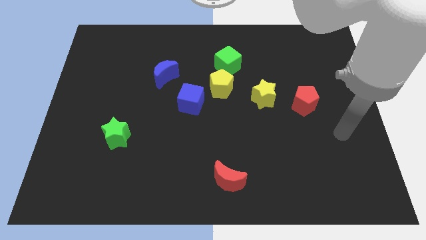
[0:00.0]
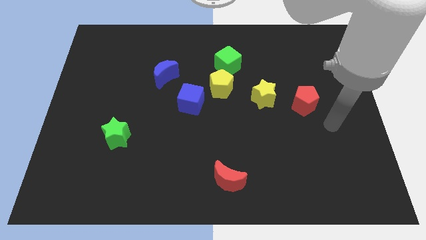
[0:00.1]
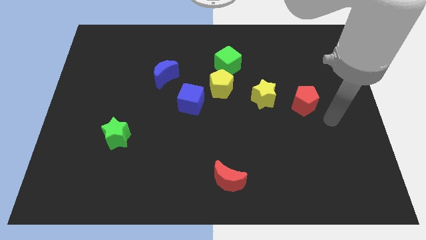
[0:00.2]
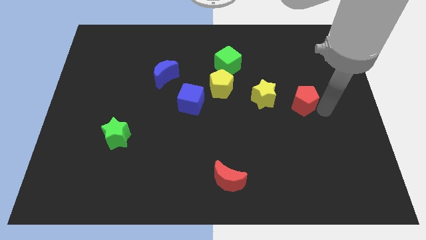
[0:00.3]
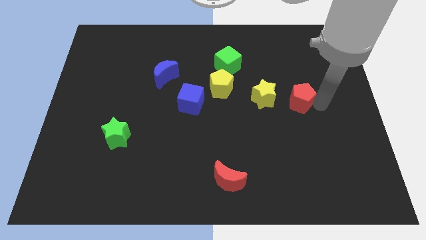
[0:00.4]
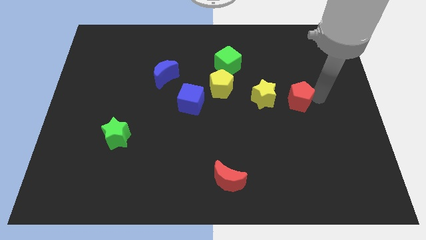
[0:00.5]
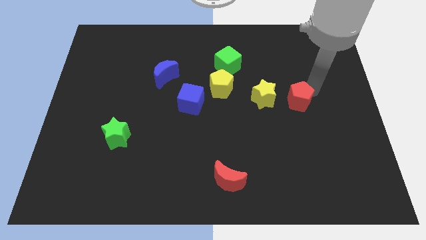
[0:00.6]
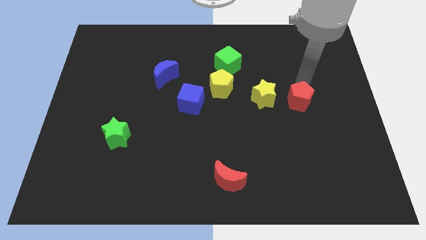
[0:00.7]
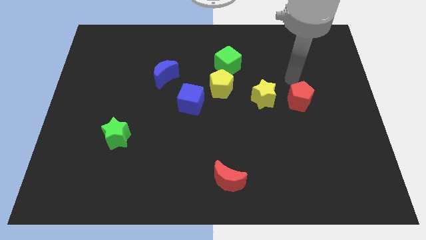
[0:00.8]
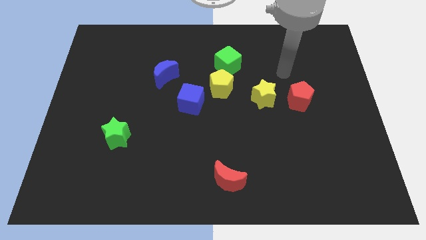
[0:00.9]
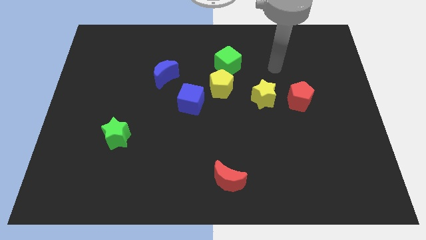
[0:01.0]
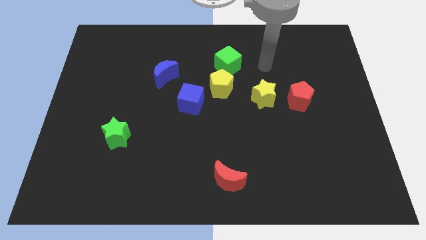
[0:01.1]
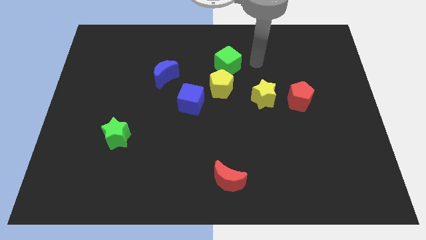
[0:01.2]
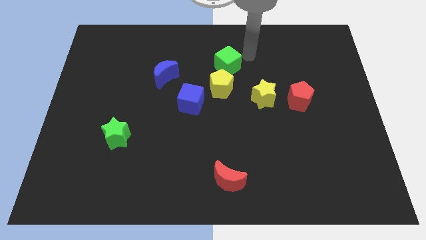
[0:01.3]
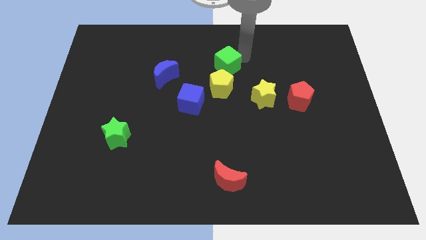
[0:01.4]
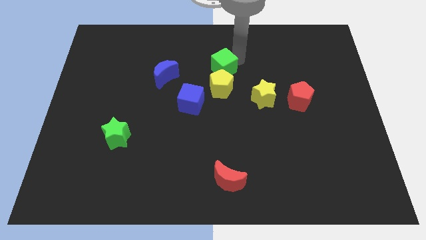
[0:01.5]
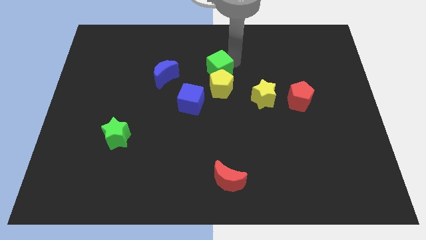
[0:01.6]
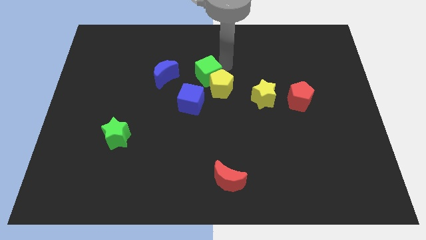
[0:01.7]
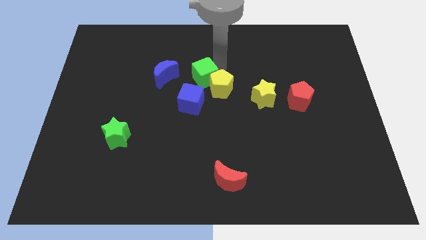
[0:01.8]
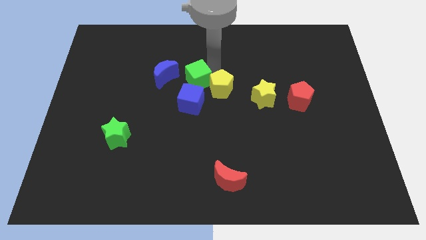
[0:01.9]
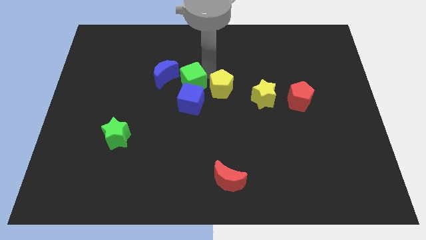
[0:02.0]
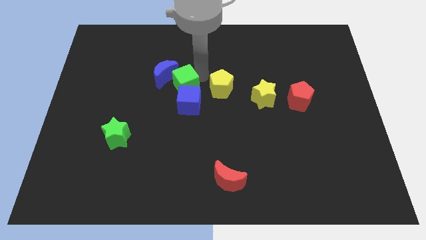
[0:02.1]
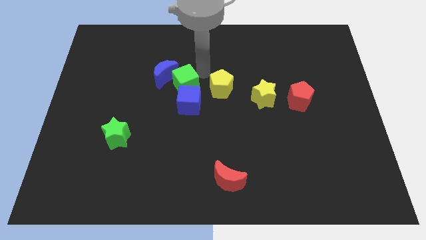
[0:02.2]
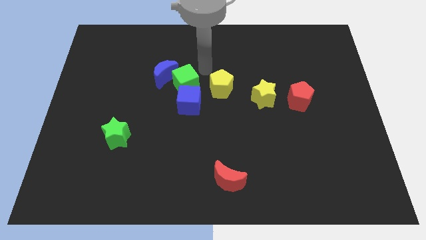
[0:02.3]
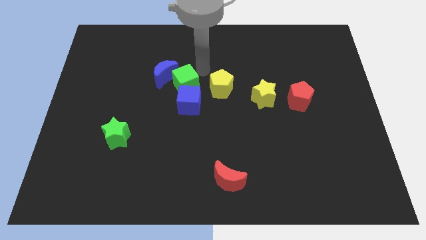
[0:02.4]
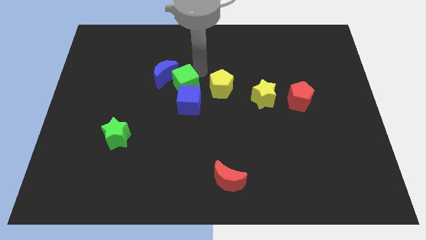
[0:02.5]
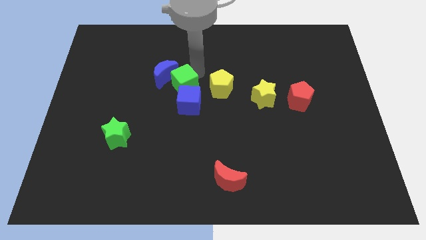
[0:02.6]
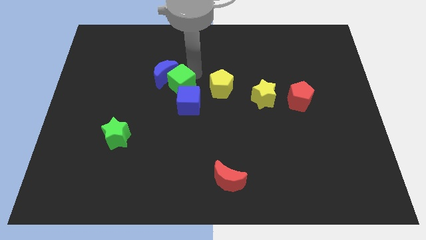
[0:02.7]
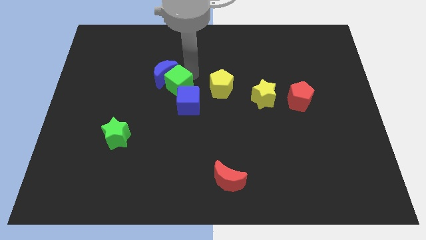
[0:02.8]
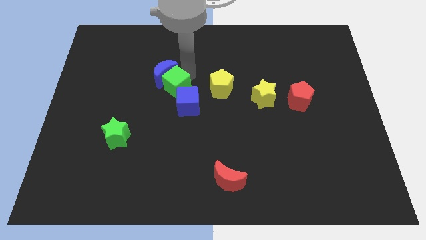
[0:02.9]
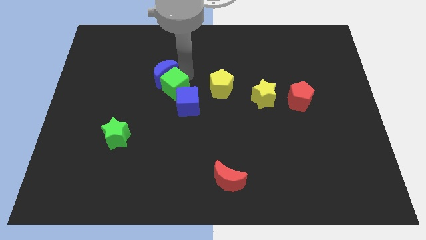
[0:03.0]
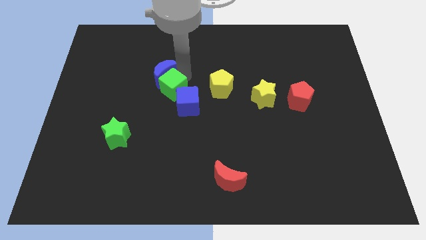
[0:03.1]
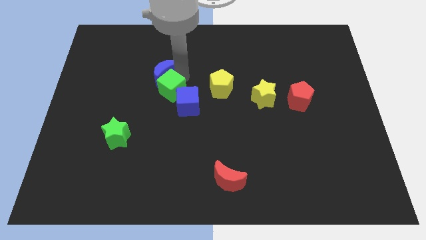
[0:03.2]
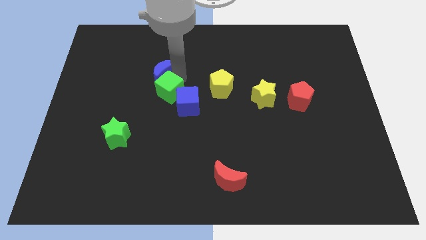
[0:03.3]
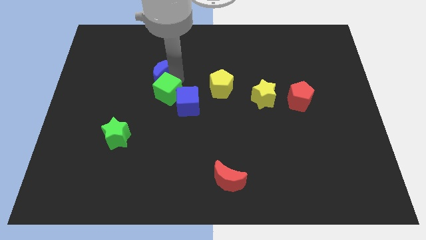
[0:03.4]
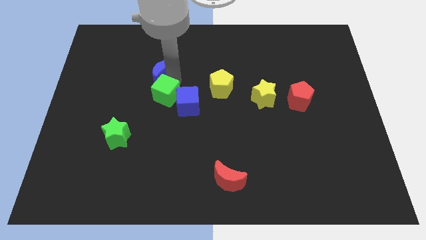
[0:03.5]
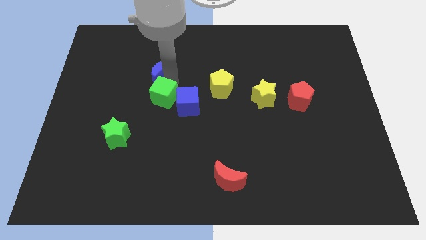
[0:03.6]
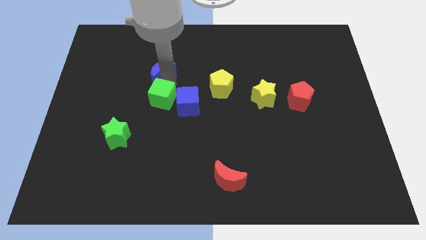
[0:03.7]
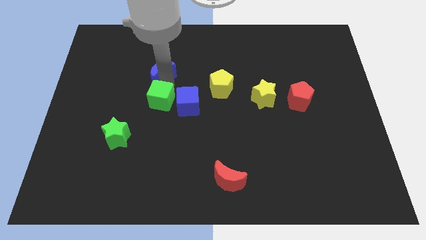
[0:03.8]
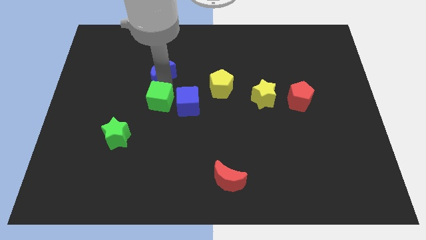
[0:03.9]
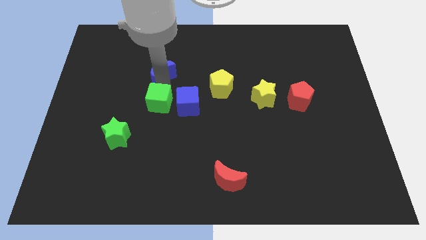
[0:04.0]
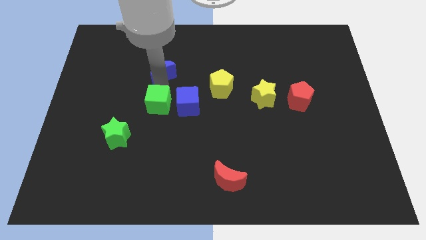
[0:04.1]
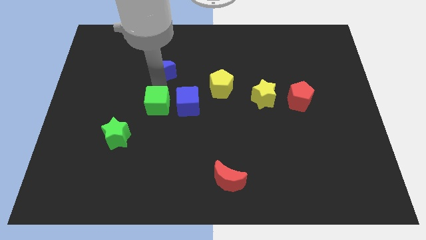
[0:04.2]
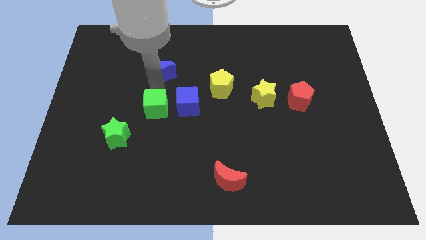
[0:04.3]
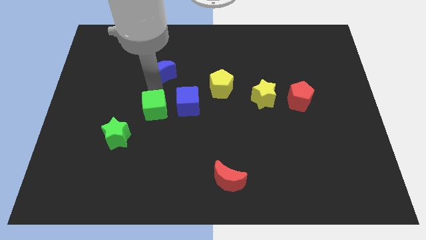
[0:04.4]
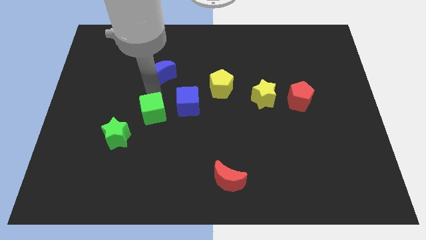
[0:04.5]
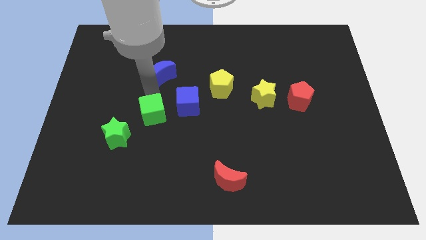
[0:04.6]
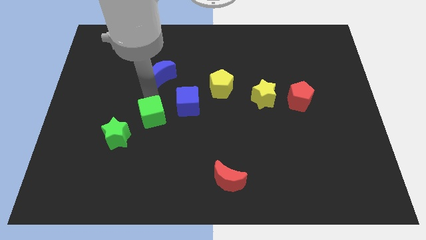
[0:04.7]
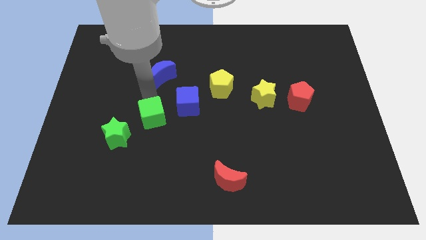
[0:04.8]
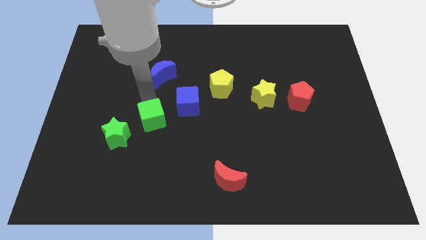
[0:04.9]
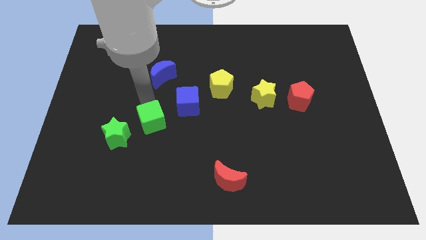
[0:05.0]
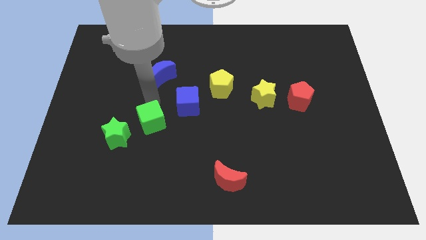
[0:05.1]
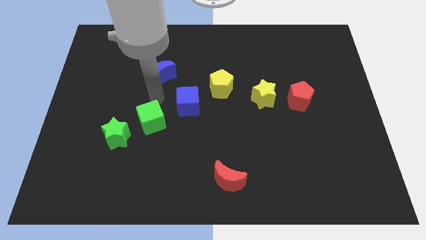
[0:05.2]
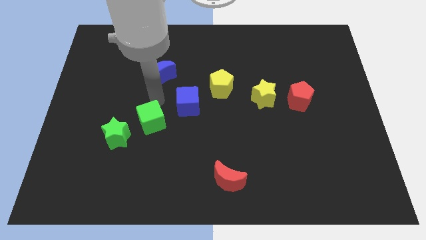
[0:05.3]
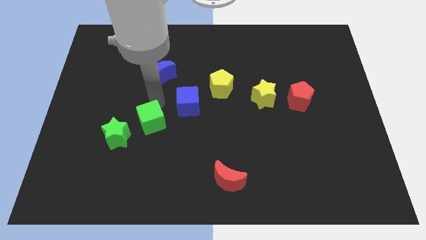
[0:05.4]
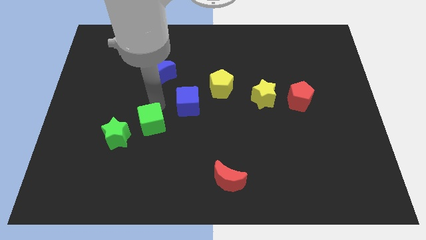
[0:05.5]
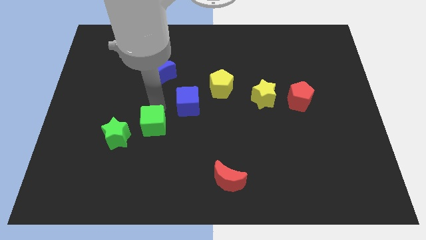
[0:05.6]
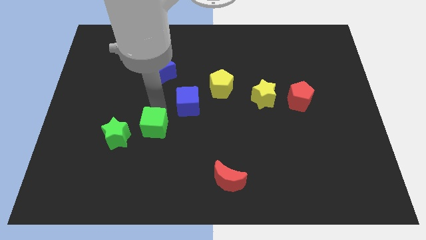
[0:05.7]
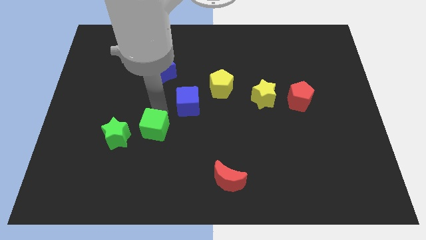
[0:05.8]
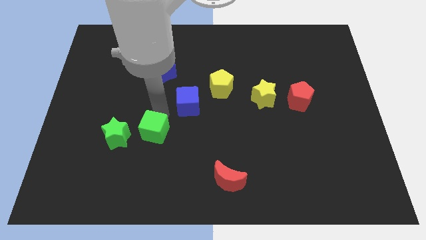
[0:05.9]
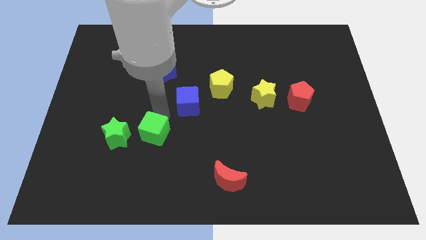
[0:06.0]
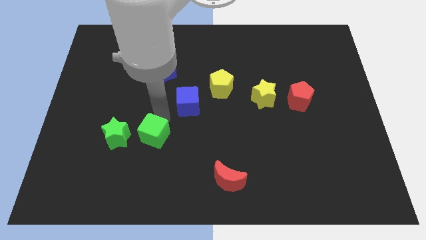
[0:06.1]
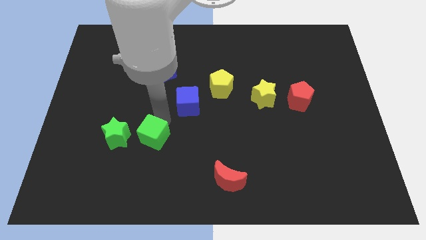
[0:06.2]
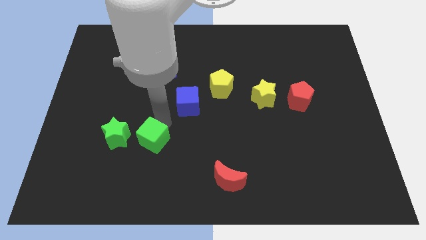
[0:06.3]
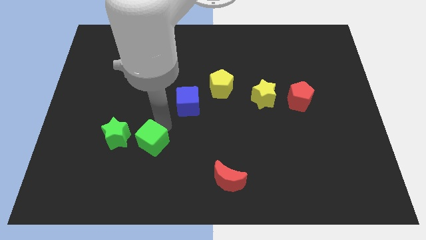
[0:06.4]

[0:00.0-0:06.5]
put the green cube to the bottom right of the green star

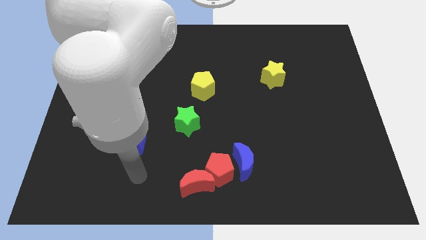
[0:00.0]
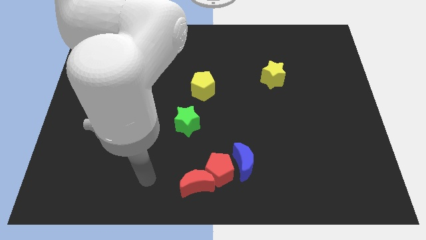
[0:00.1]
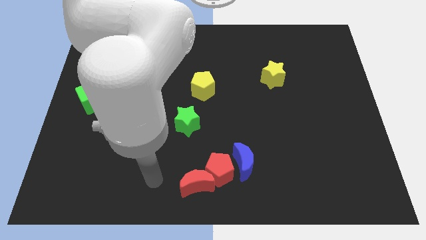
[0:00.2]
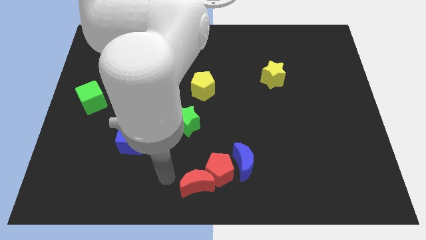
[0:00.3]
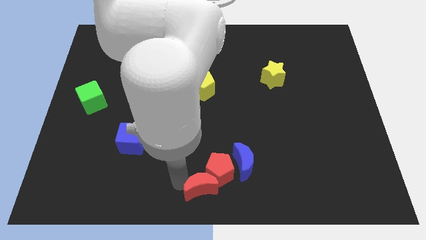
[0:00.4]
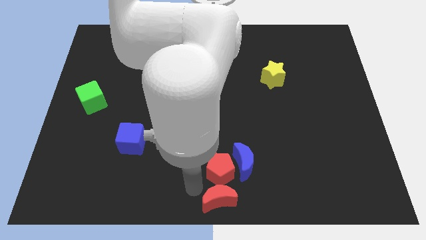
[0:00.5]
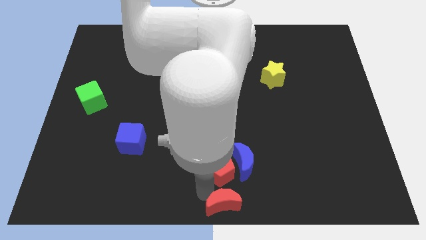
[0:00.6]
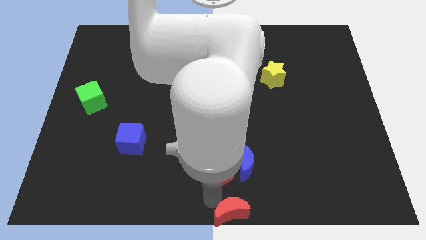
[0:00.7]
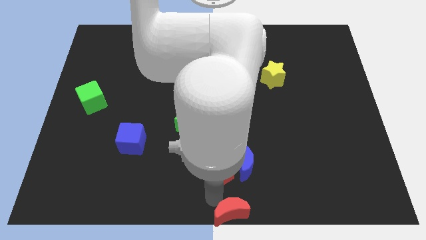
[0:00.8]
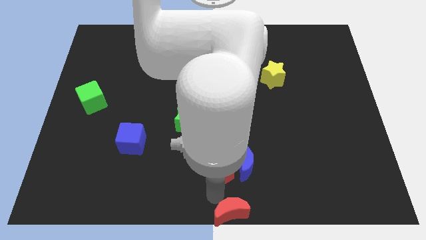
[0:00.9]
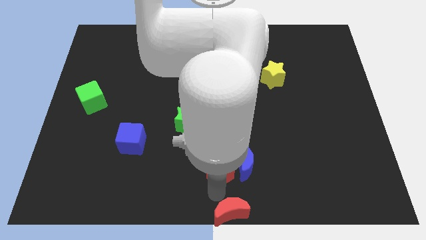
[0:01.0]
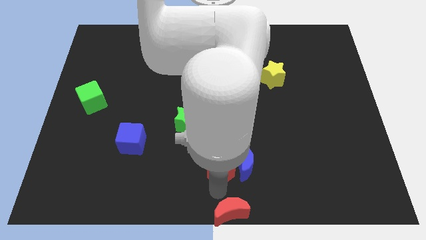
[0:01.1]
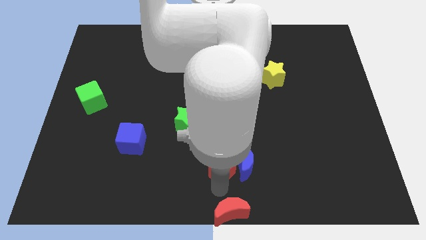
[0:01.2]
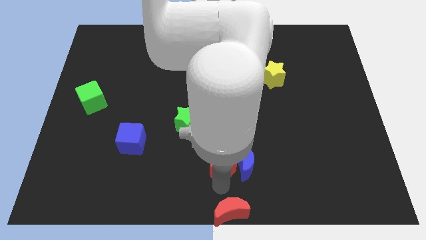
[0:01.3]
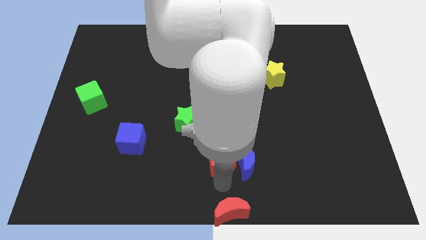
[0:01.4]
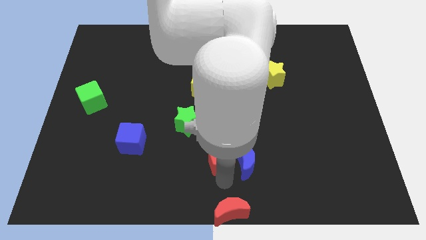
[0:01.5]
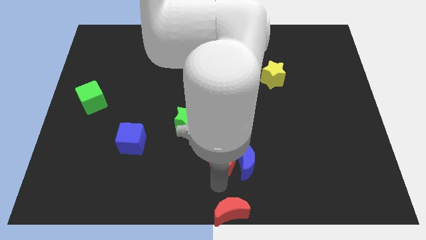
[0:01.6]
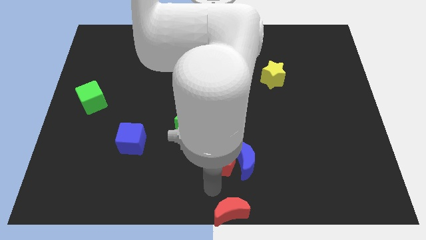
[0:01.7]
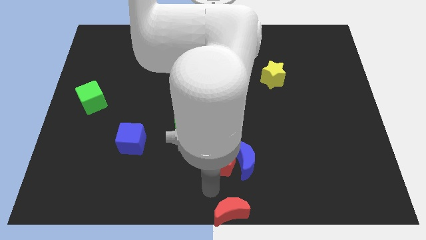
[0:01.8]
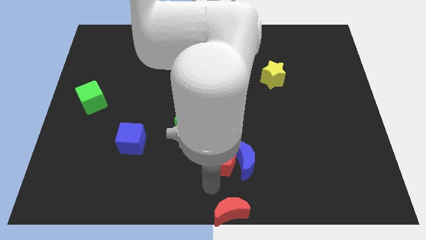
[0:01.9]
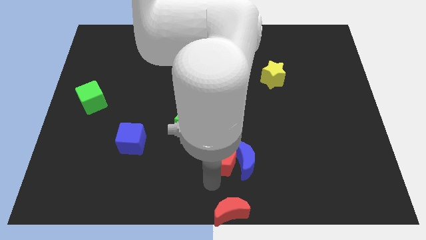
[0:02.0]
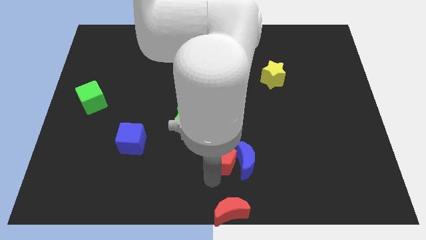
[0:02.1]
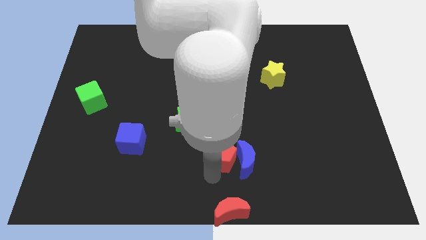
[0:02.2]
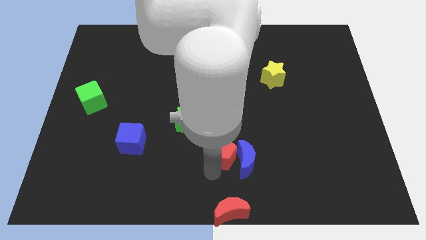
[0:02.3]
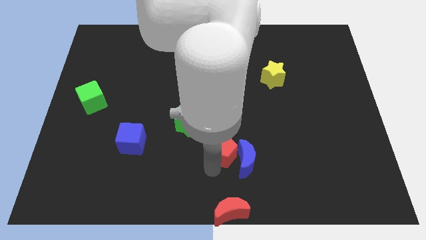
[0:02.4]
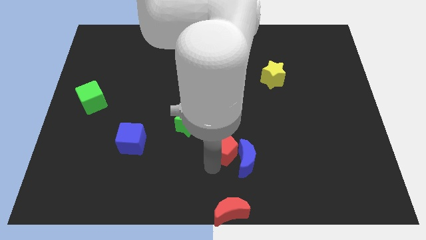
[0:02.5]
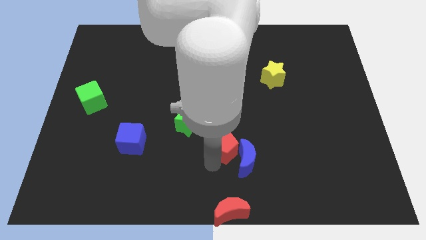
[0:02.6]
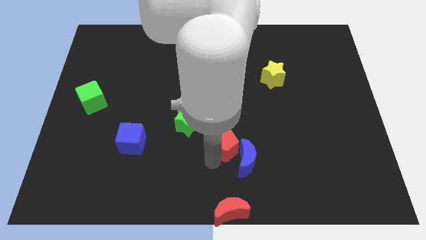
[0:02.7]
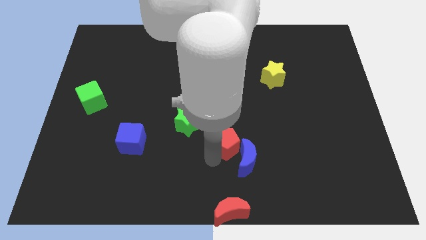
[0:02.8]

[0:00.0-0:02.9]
put the red pentagon to the top side of the blue moon
